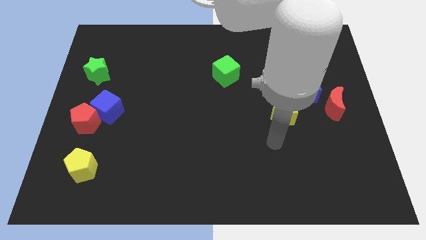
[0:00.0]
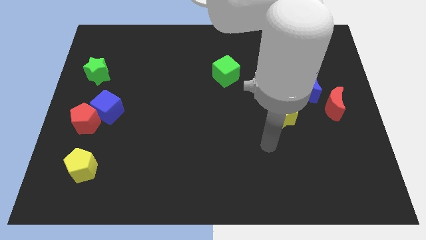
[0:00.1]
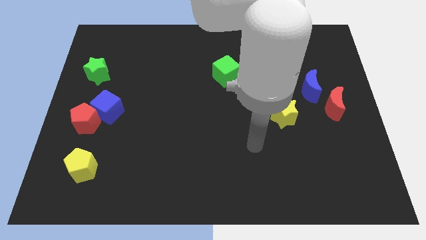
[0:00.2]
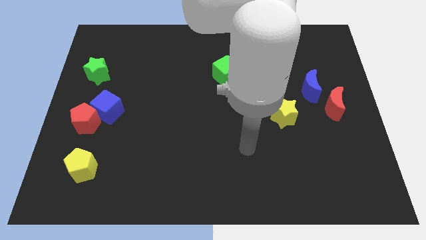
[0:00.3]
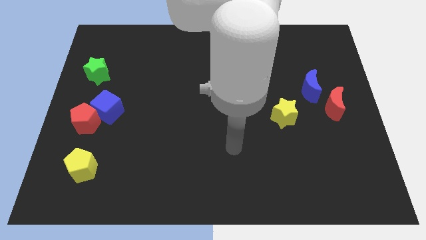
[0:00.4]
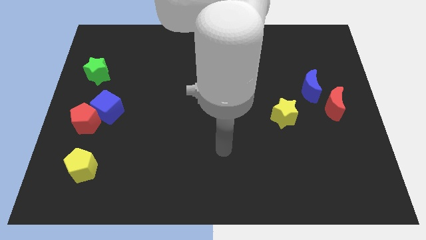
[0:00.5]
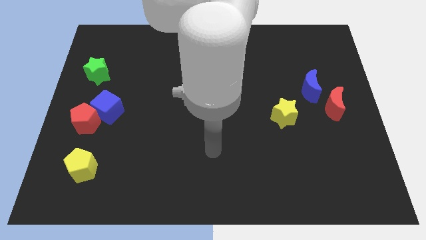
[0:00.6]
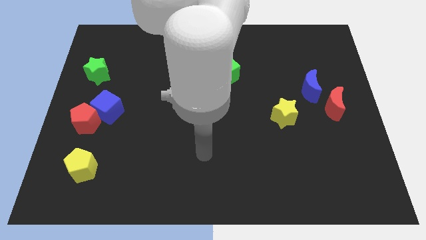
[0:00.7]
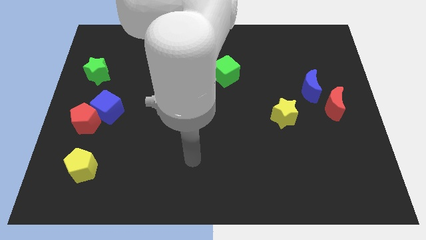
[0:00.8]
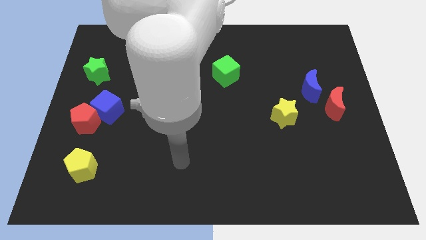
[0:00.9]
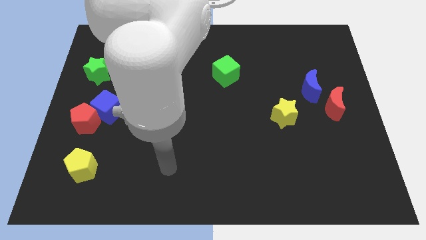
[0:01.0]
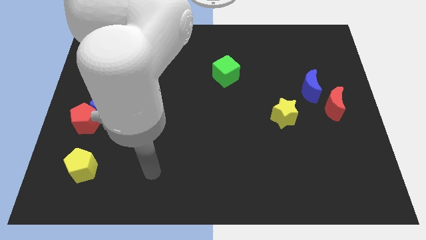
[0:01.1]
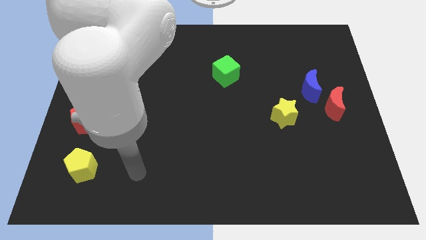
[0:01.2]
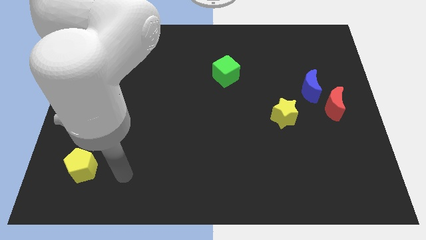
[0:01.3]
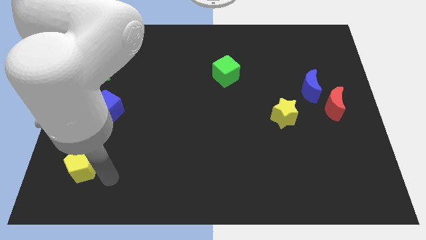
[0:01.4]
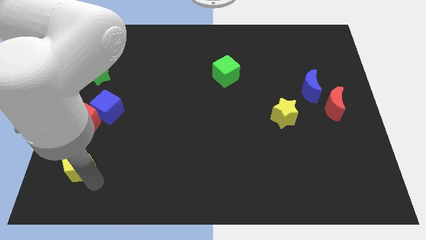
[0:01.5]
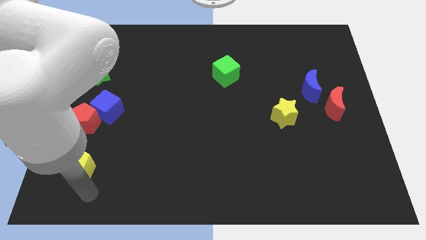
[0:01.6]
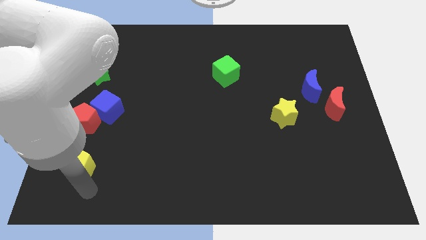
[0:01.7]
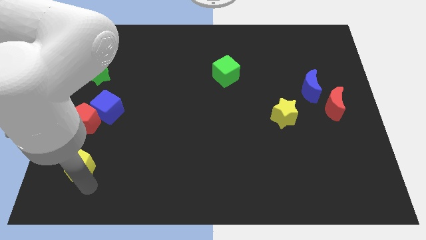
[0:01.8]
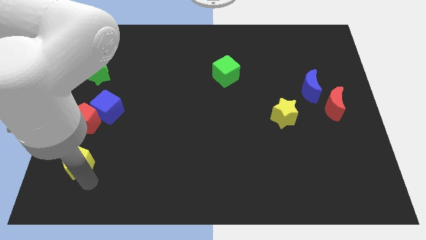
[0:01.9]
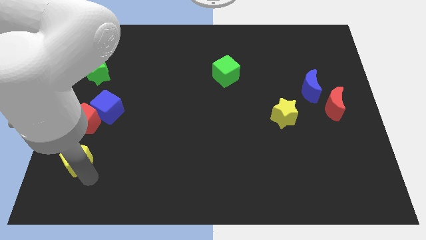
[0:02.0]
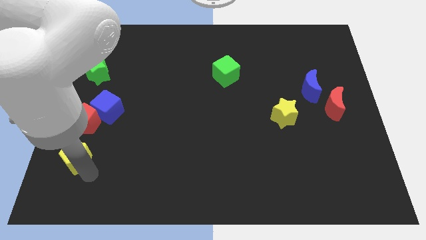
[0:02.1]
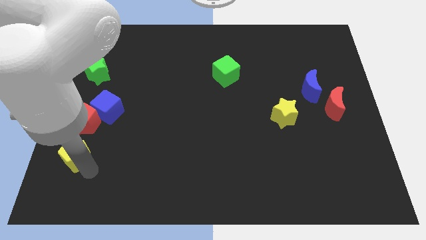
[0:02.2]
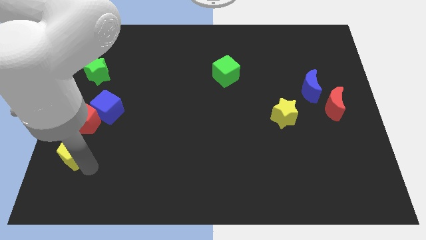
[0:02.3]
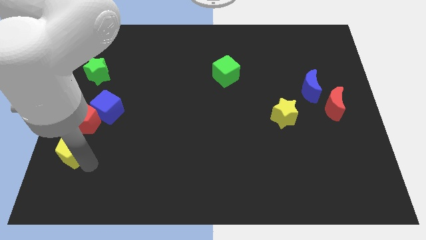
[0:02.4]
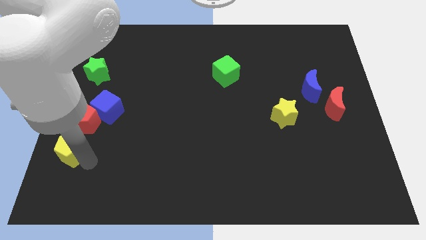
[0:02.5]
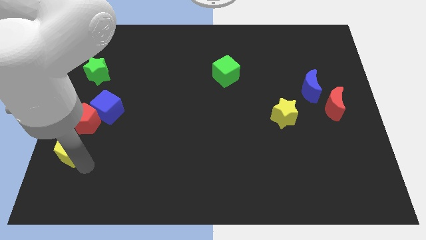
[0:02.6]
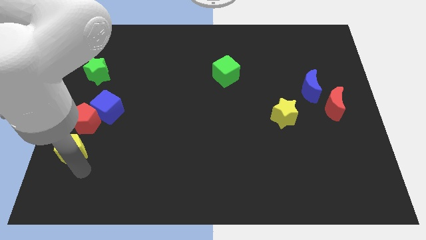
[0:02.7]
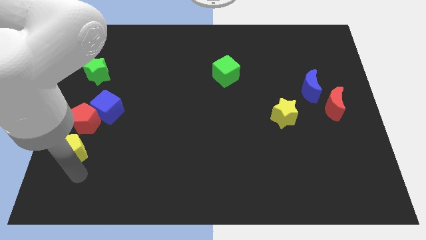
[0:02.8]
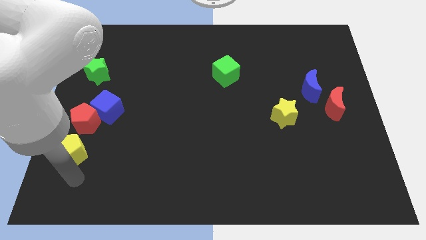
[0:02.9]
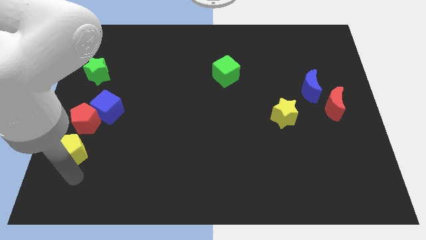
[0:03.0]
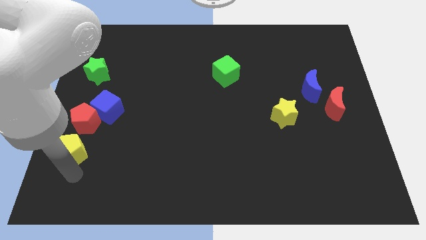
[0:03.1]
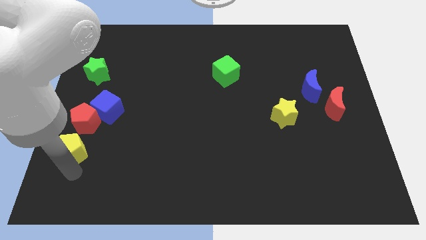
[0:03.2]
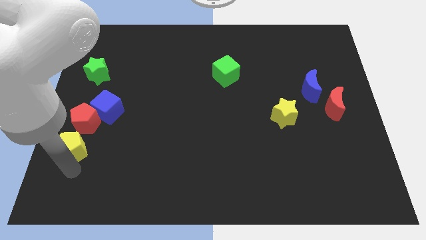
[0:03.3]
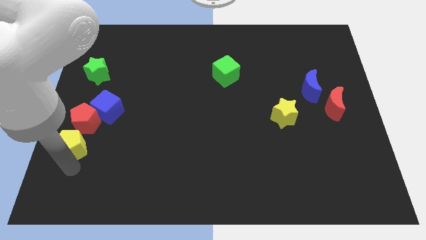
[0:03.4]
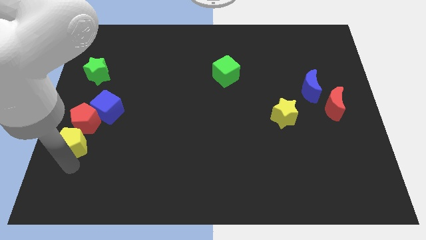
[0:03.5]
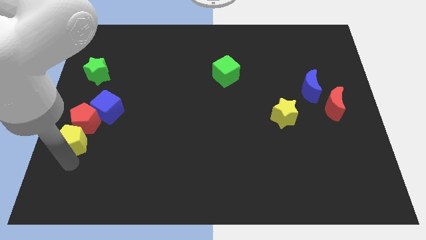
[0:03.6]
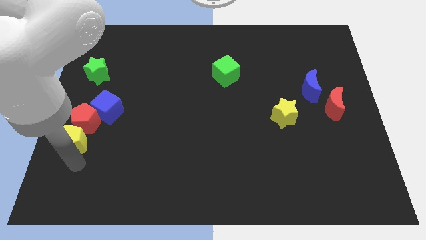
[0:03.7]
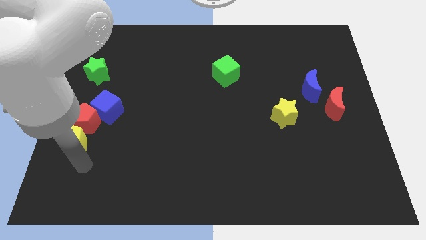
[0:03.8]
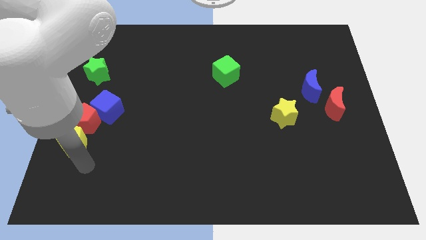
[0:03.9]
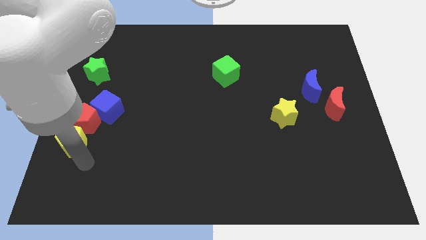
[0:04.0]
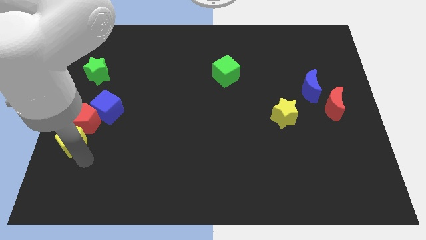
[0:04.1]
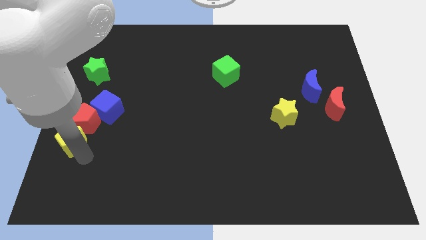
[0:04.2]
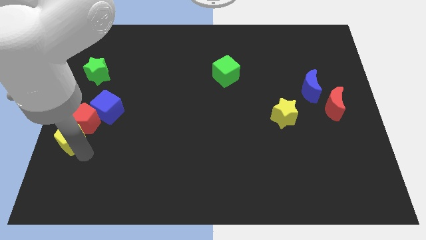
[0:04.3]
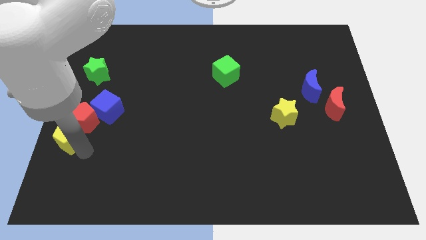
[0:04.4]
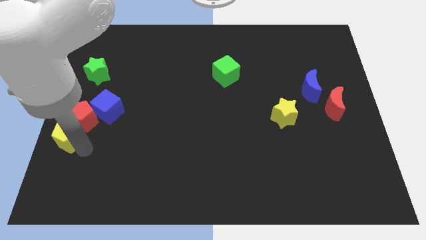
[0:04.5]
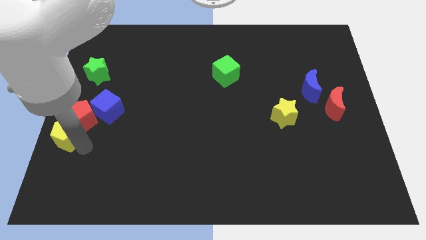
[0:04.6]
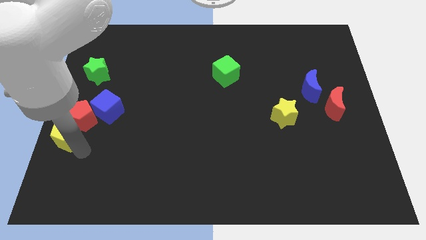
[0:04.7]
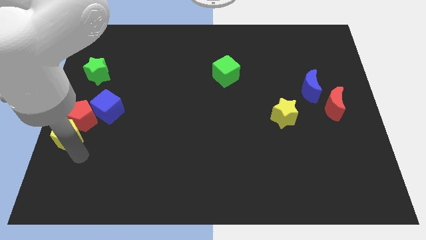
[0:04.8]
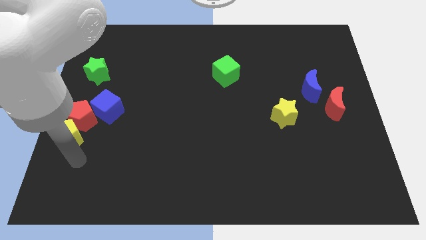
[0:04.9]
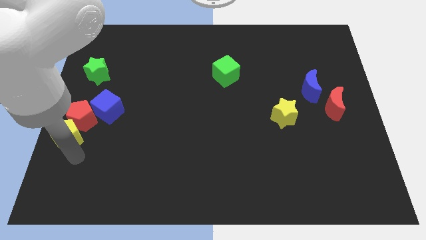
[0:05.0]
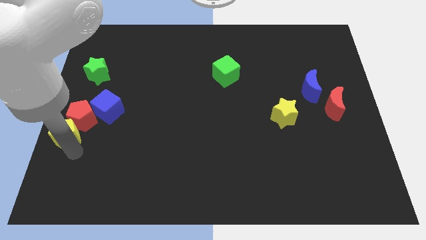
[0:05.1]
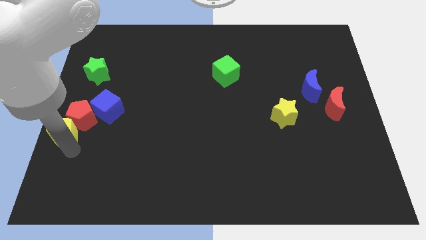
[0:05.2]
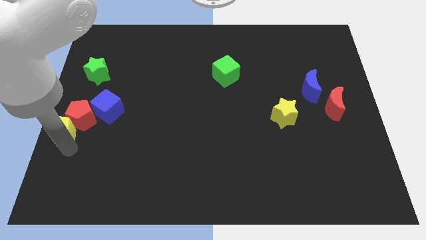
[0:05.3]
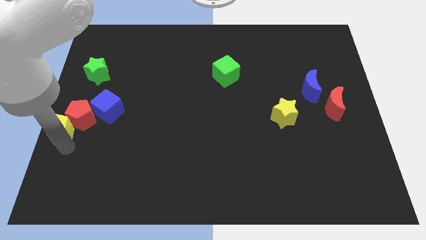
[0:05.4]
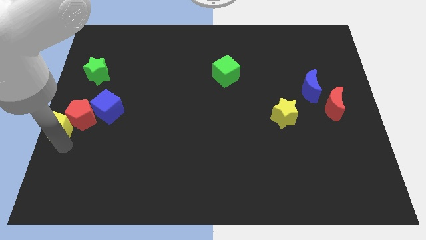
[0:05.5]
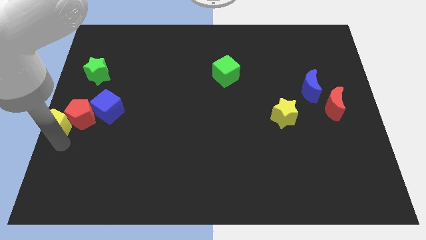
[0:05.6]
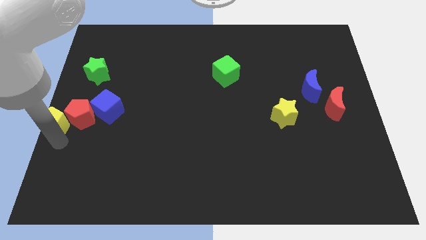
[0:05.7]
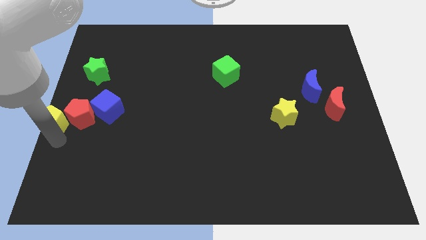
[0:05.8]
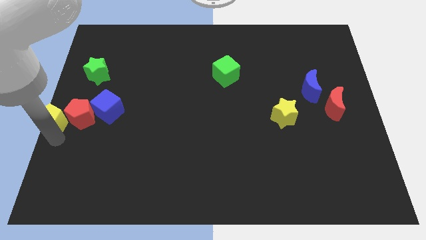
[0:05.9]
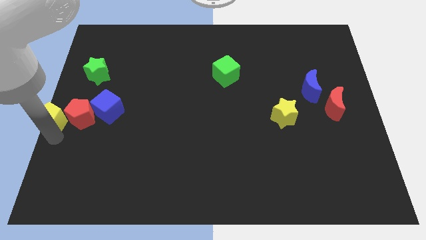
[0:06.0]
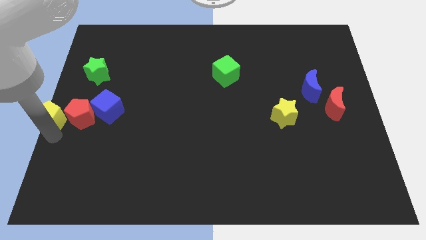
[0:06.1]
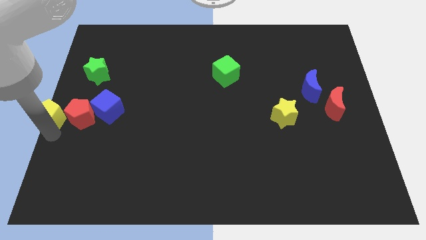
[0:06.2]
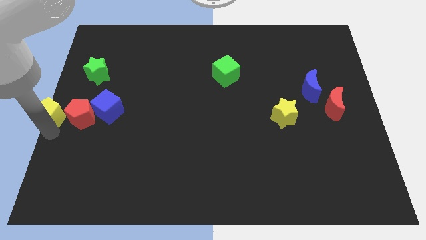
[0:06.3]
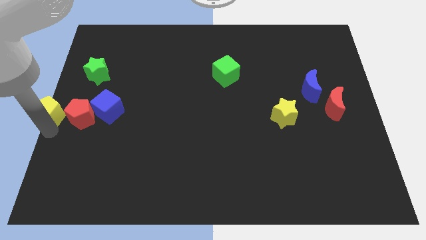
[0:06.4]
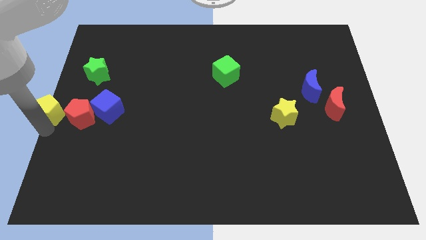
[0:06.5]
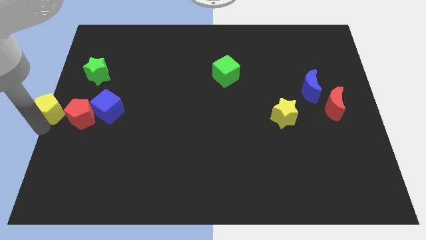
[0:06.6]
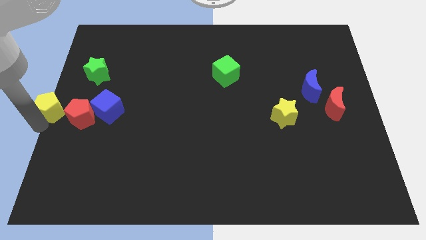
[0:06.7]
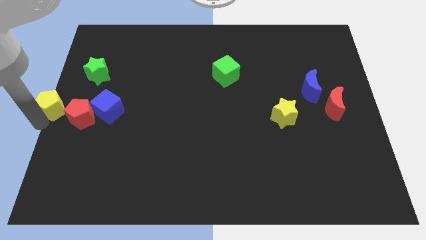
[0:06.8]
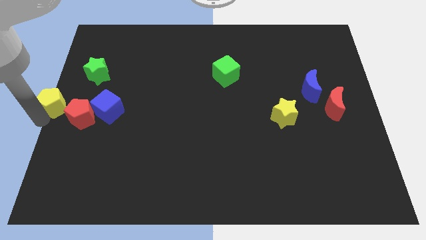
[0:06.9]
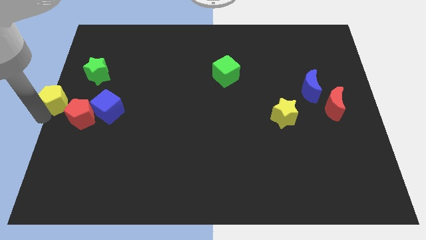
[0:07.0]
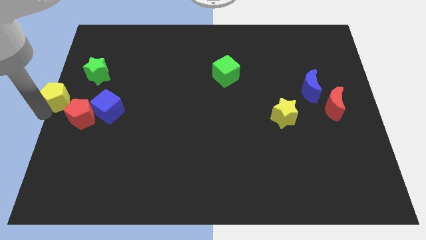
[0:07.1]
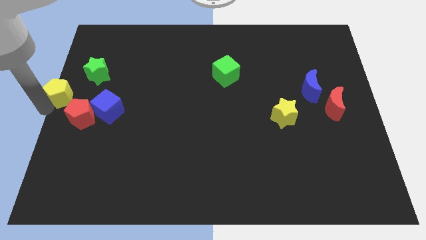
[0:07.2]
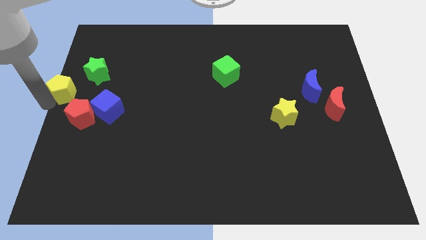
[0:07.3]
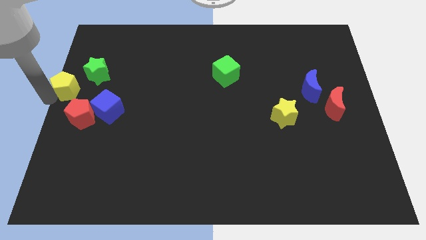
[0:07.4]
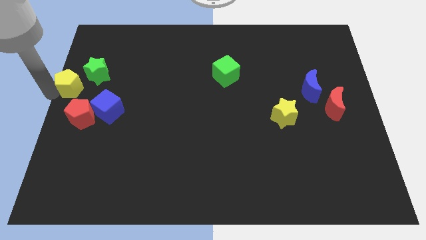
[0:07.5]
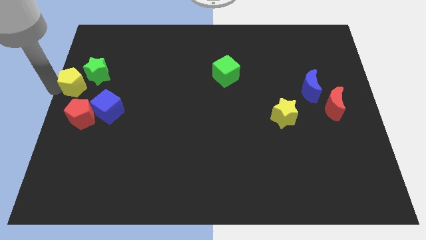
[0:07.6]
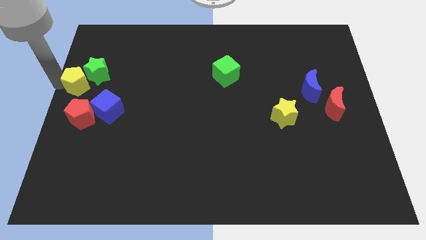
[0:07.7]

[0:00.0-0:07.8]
push the yellow pentagon next to the green star

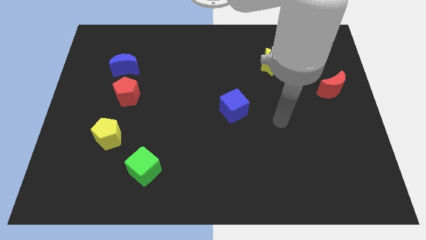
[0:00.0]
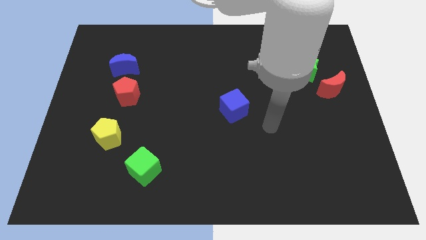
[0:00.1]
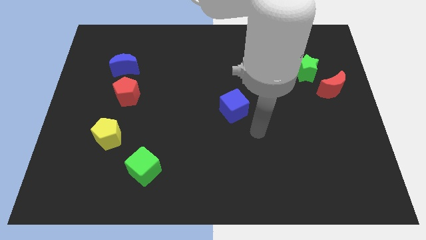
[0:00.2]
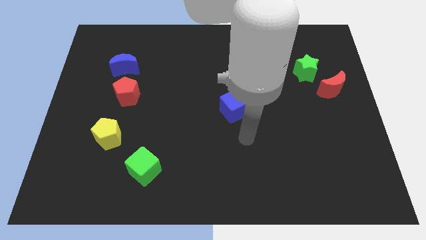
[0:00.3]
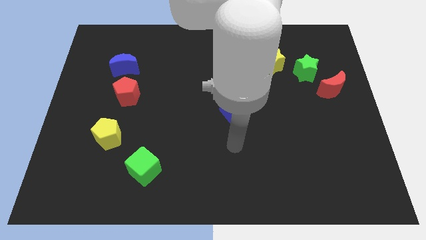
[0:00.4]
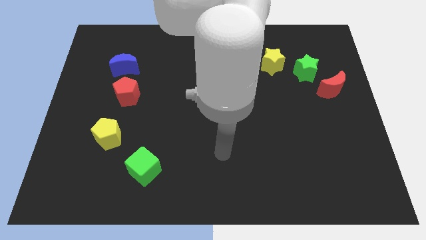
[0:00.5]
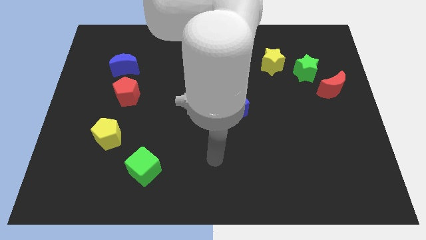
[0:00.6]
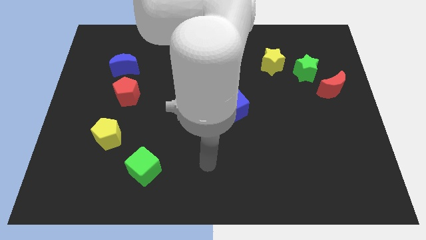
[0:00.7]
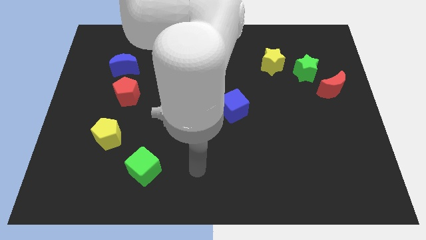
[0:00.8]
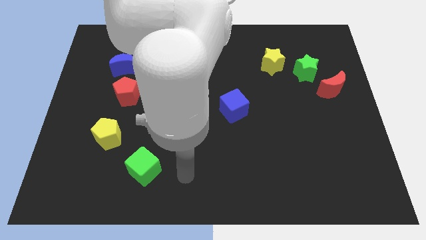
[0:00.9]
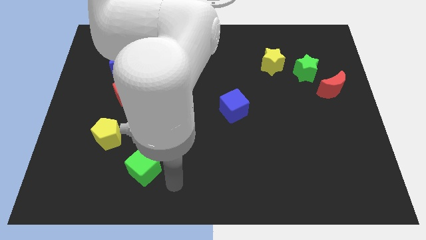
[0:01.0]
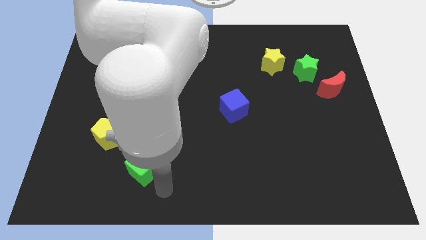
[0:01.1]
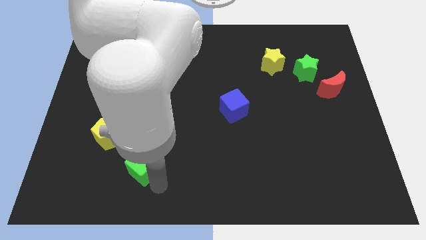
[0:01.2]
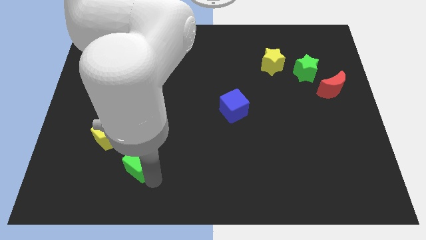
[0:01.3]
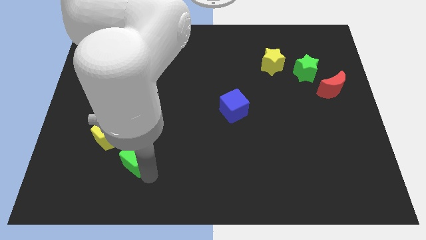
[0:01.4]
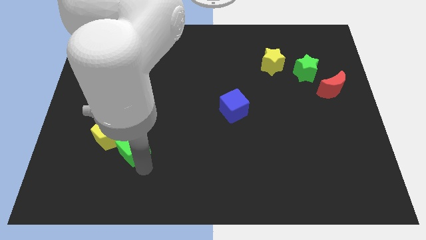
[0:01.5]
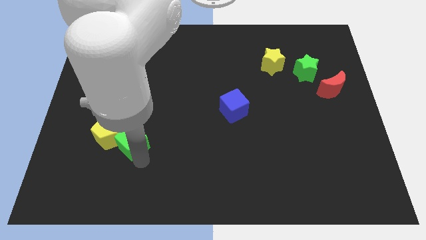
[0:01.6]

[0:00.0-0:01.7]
push the green cube next to the yellow pentagon
